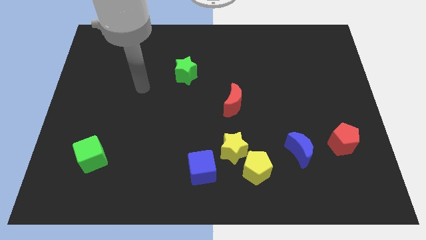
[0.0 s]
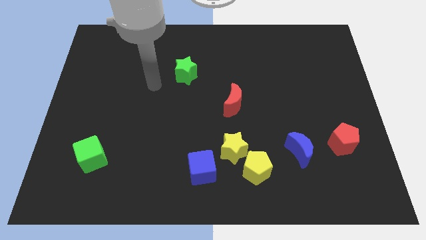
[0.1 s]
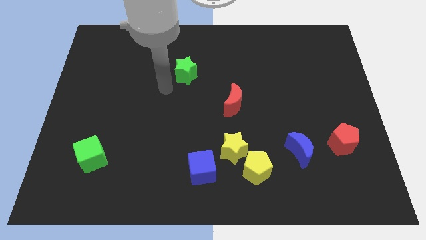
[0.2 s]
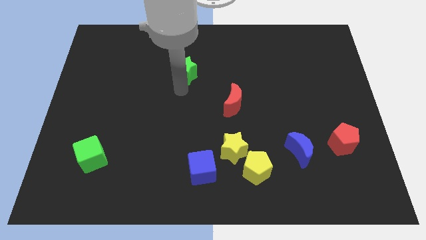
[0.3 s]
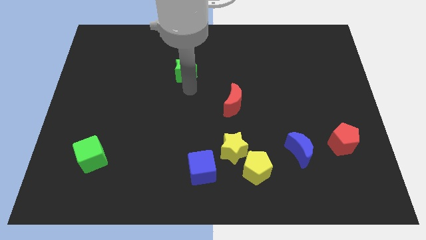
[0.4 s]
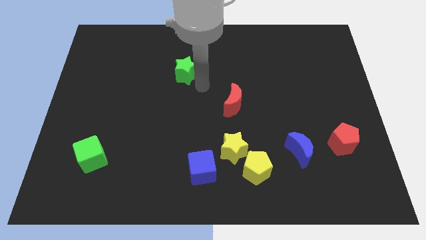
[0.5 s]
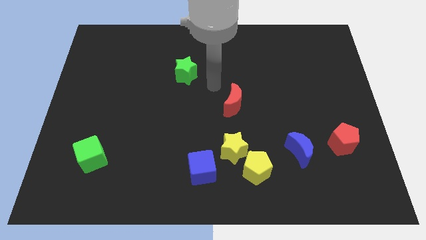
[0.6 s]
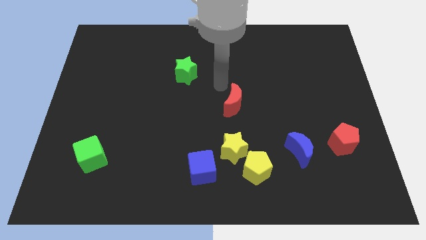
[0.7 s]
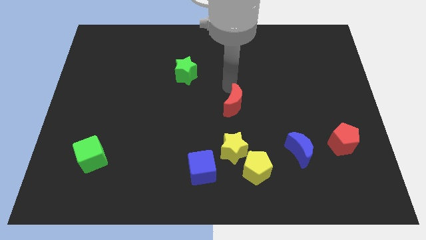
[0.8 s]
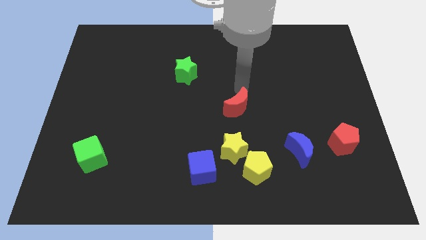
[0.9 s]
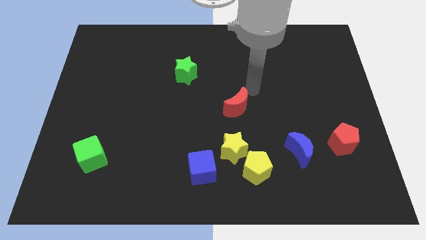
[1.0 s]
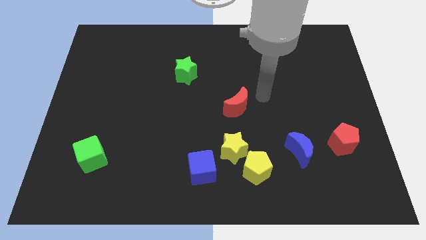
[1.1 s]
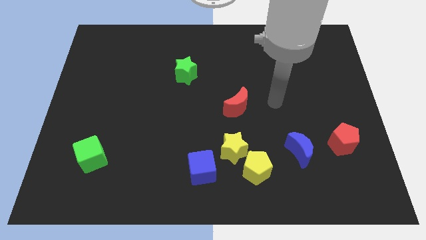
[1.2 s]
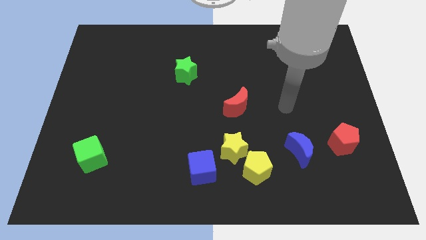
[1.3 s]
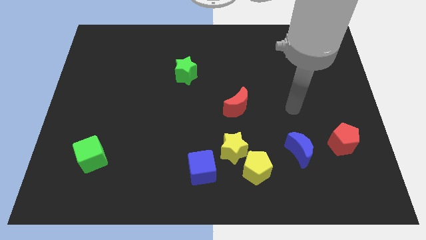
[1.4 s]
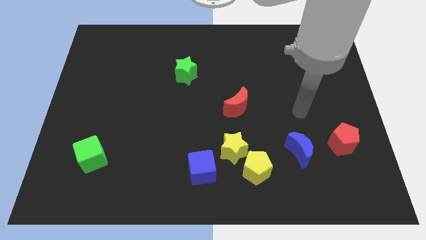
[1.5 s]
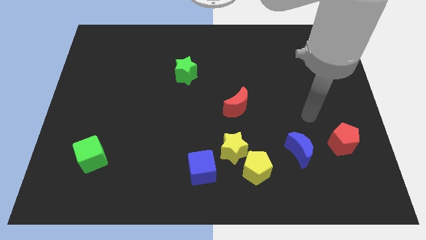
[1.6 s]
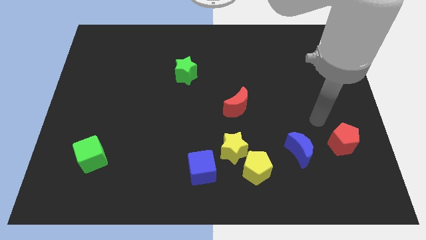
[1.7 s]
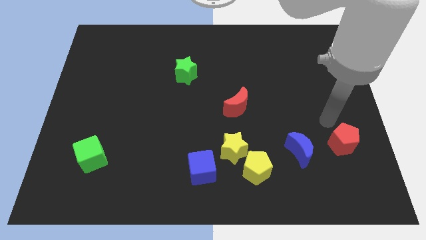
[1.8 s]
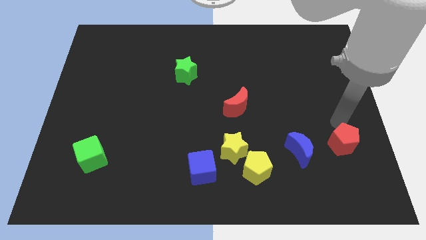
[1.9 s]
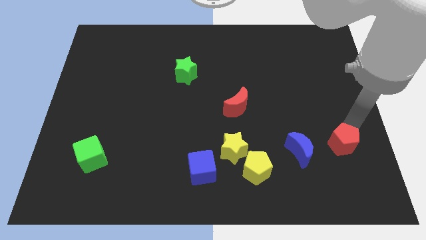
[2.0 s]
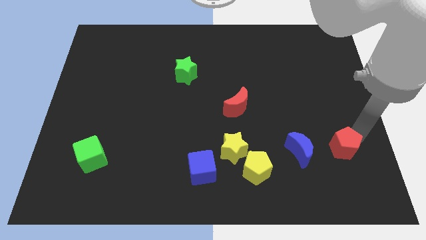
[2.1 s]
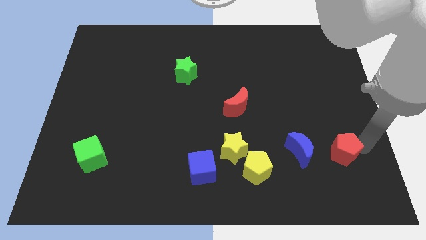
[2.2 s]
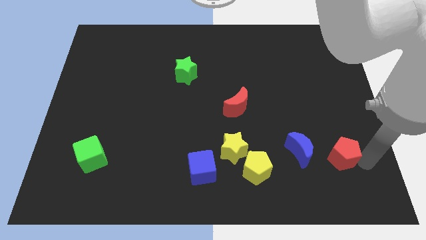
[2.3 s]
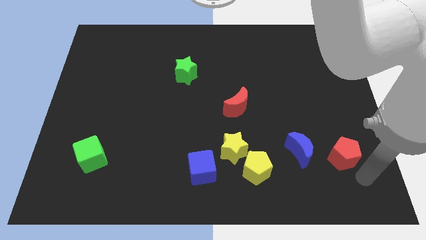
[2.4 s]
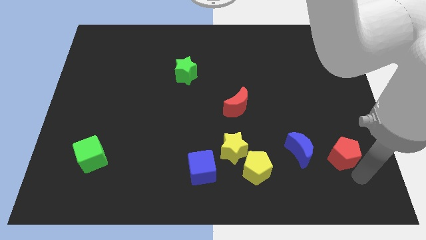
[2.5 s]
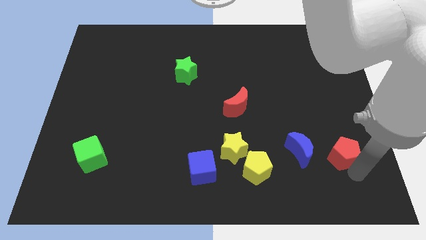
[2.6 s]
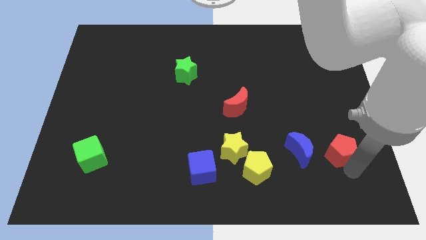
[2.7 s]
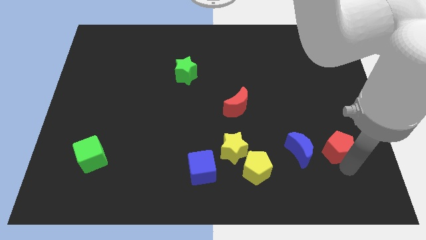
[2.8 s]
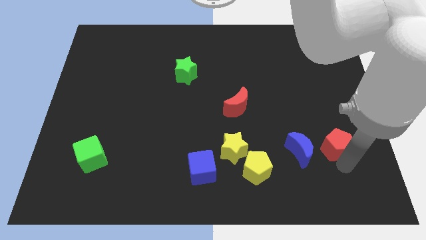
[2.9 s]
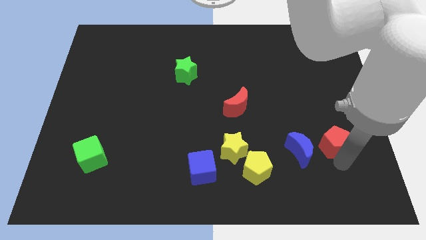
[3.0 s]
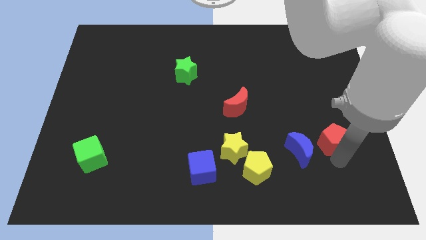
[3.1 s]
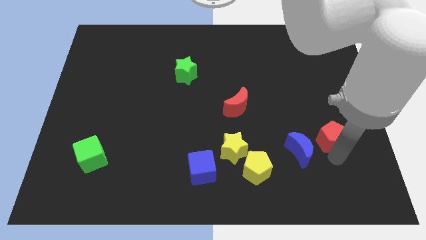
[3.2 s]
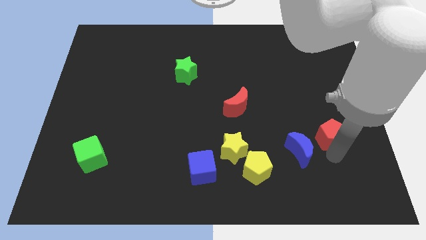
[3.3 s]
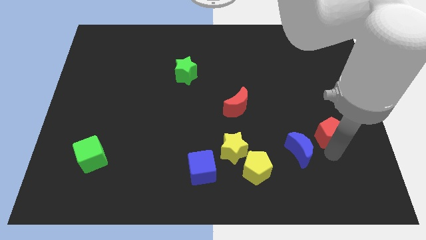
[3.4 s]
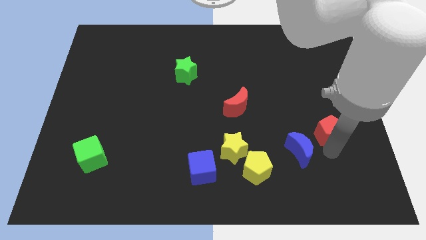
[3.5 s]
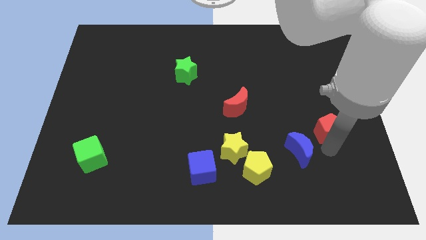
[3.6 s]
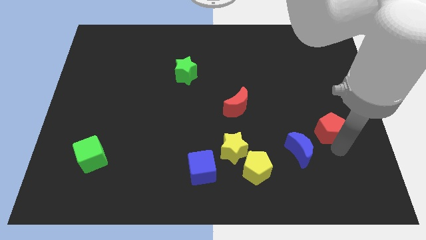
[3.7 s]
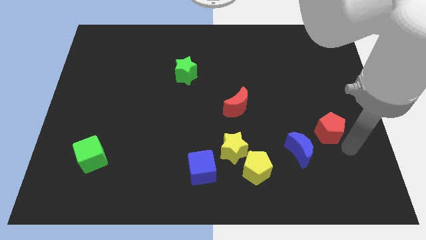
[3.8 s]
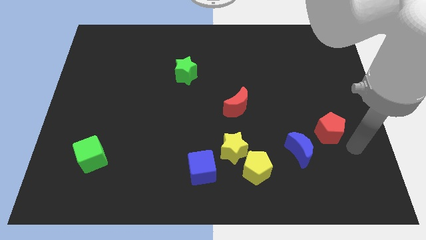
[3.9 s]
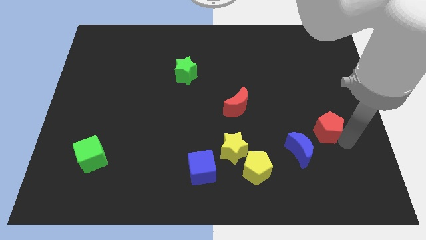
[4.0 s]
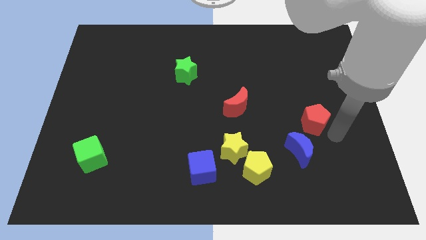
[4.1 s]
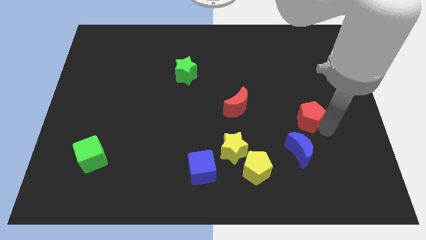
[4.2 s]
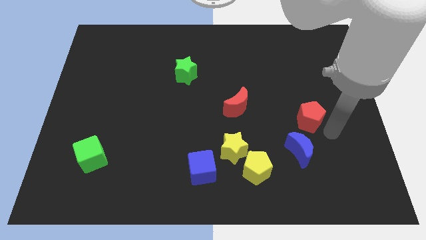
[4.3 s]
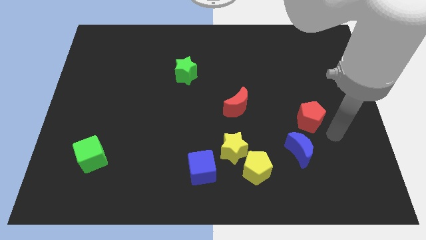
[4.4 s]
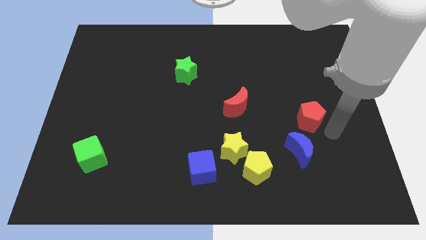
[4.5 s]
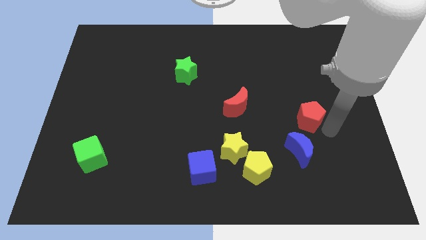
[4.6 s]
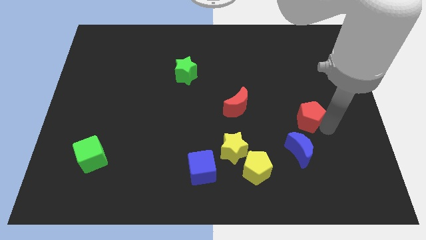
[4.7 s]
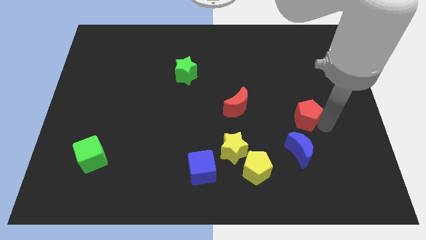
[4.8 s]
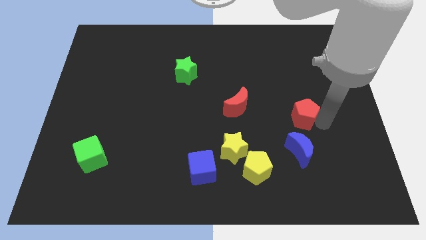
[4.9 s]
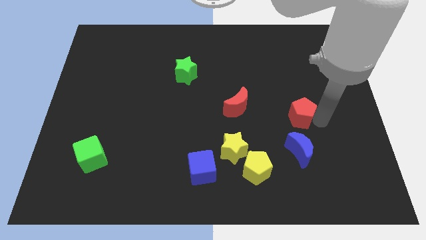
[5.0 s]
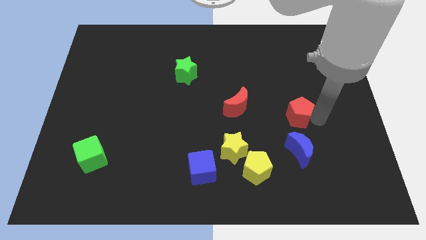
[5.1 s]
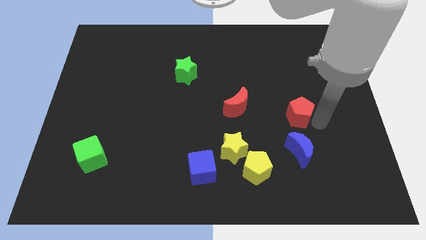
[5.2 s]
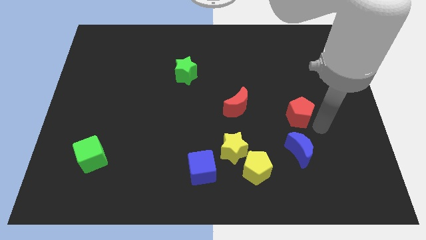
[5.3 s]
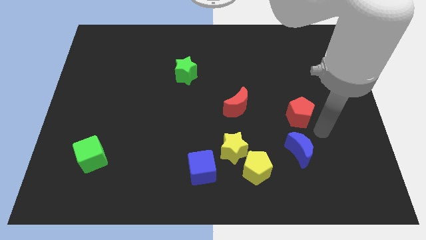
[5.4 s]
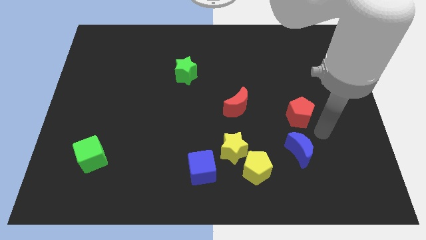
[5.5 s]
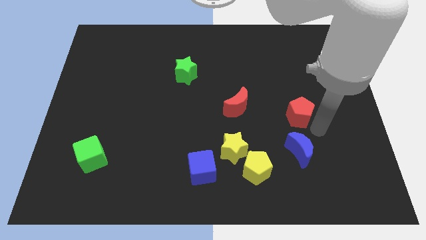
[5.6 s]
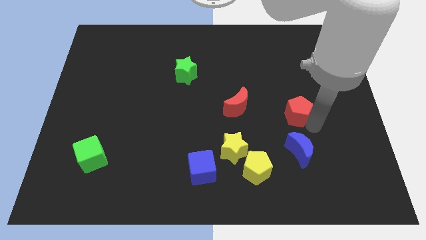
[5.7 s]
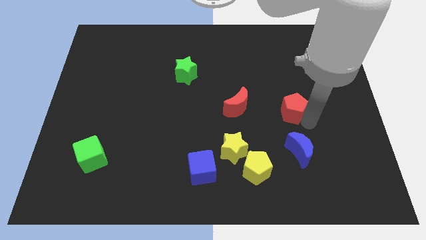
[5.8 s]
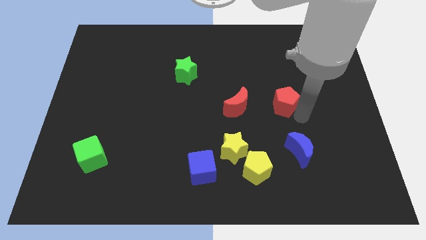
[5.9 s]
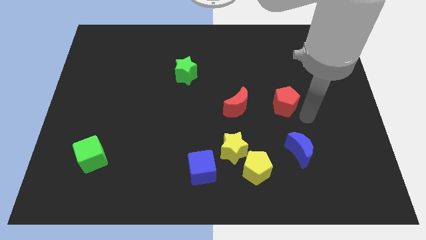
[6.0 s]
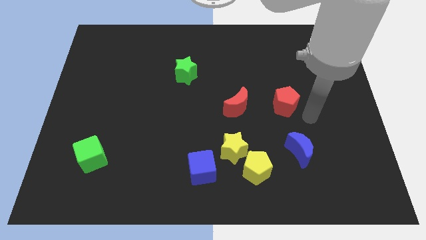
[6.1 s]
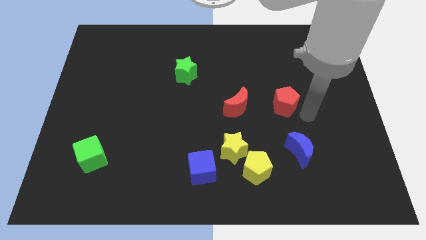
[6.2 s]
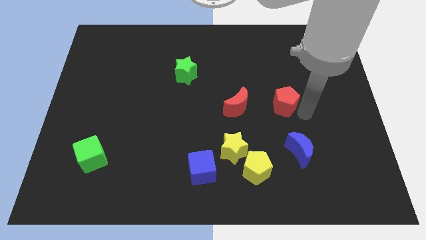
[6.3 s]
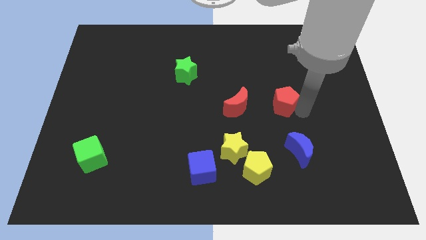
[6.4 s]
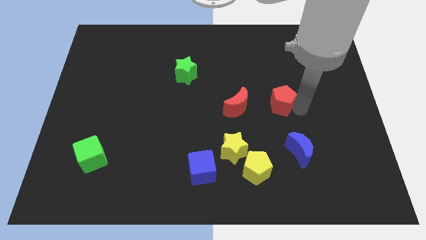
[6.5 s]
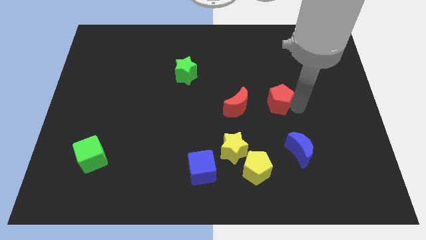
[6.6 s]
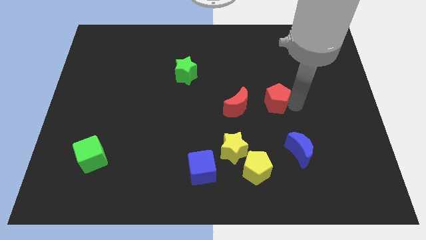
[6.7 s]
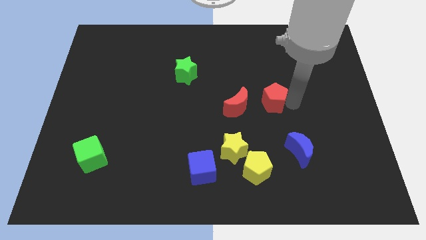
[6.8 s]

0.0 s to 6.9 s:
slide the red pentagon diagonally up and to the right of the red moon

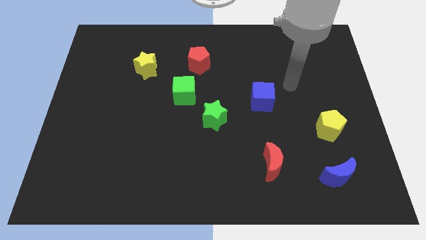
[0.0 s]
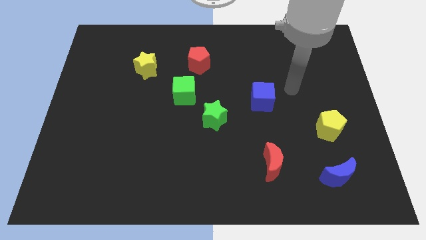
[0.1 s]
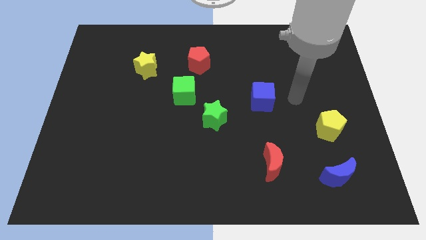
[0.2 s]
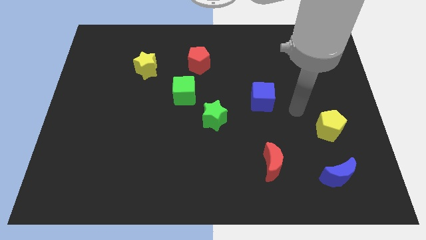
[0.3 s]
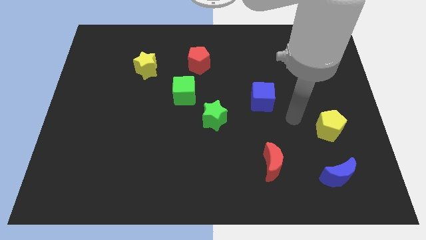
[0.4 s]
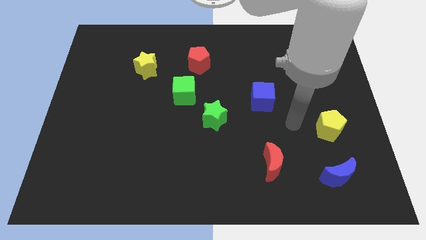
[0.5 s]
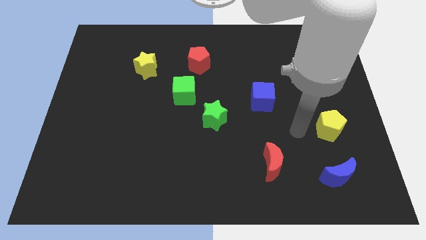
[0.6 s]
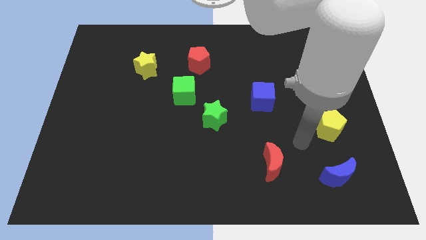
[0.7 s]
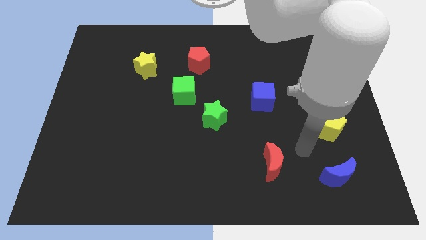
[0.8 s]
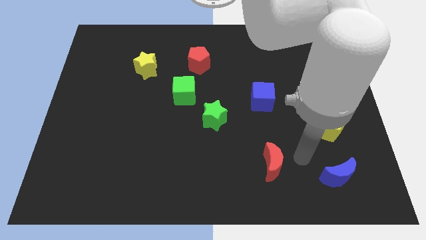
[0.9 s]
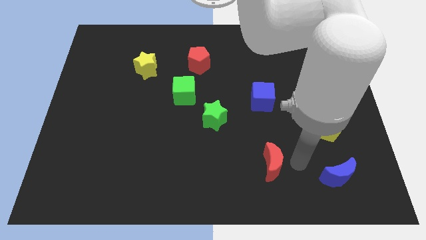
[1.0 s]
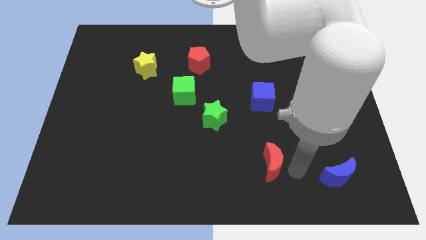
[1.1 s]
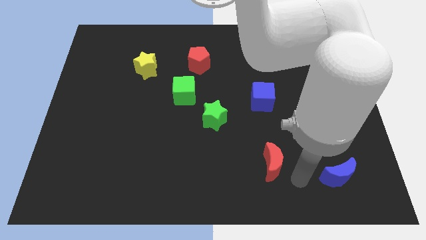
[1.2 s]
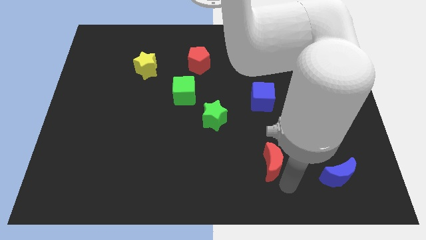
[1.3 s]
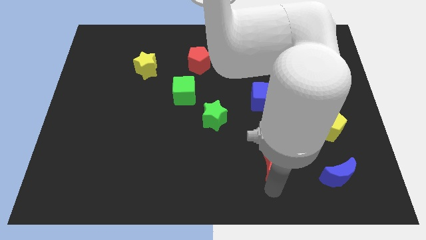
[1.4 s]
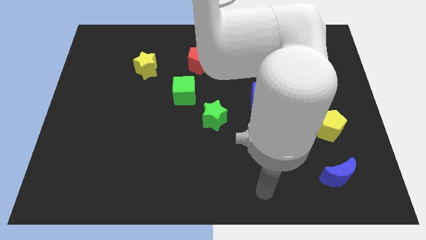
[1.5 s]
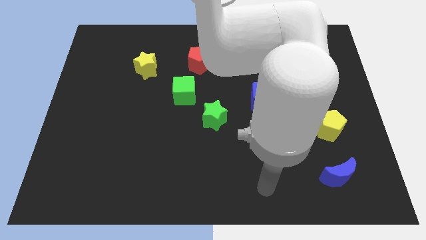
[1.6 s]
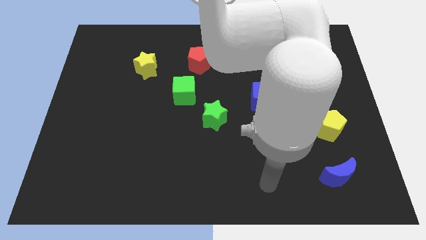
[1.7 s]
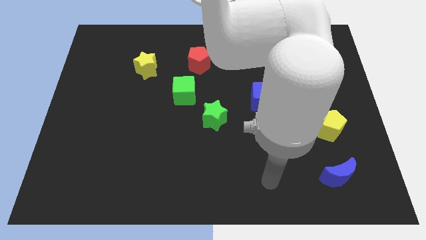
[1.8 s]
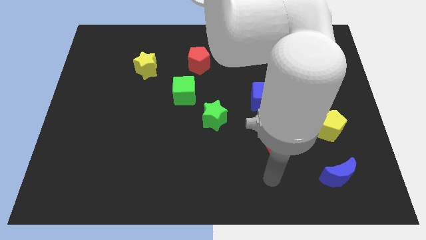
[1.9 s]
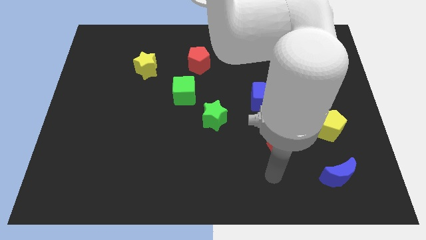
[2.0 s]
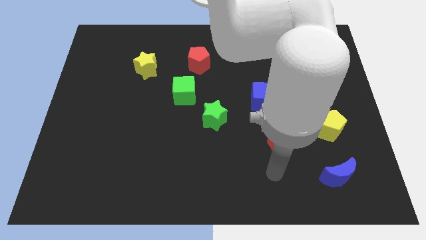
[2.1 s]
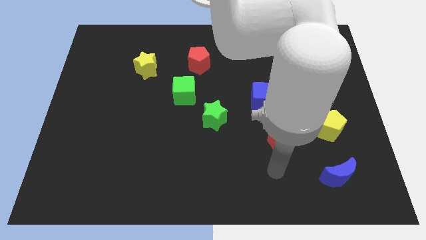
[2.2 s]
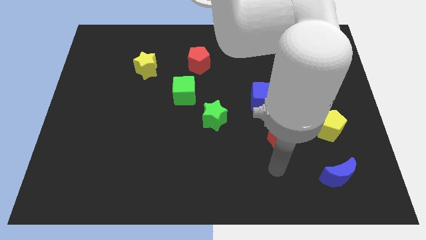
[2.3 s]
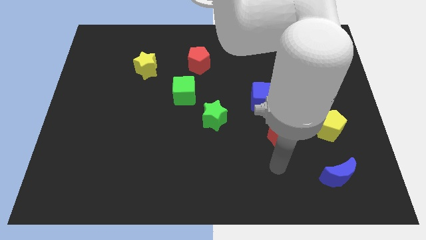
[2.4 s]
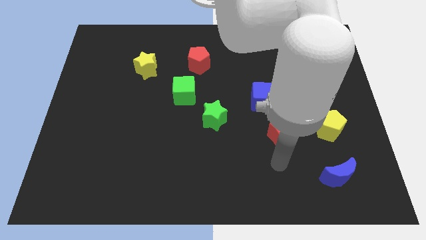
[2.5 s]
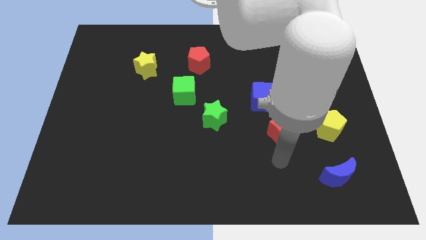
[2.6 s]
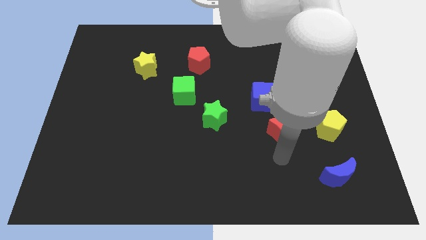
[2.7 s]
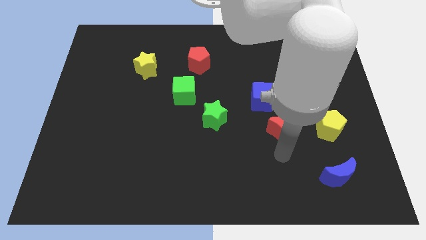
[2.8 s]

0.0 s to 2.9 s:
move the red moon to the bottom right side of the blue cube
